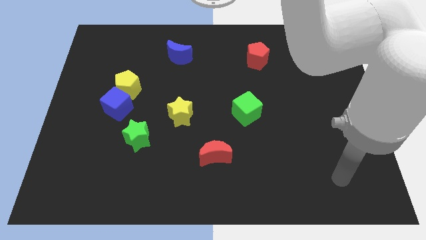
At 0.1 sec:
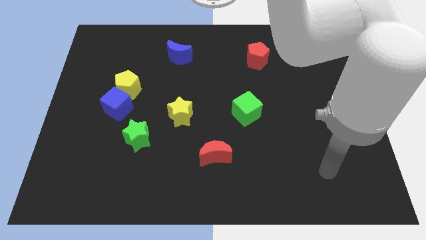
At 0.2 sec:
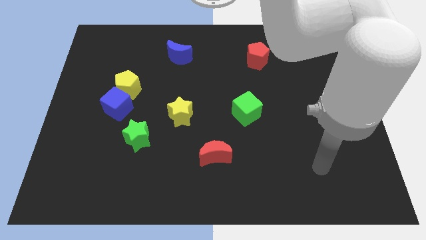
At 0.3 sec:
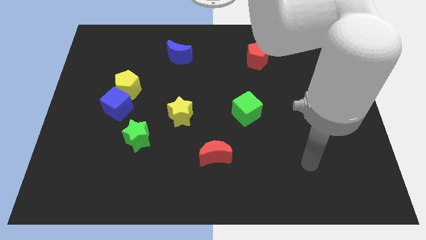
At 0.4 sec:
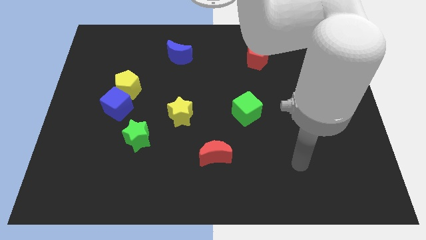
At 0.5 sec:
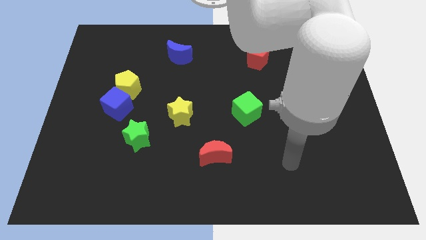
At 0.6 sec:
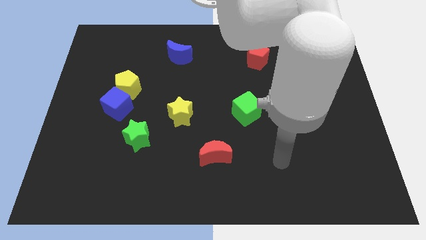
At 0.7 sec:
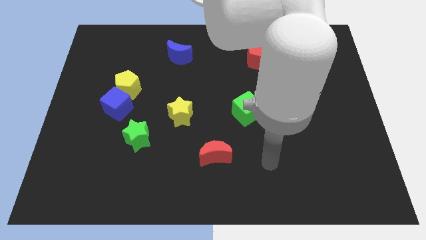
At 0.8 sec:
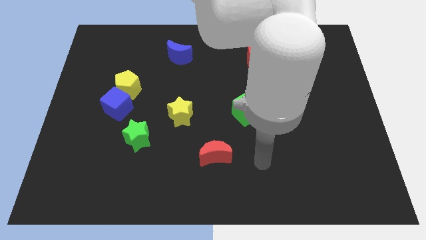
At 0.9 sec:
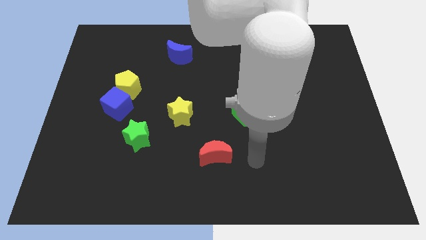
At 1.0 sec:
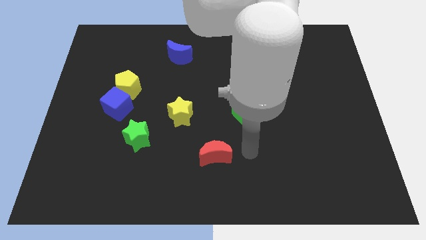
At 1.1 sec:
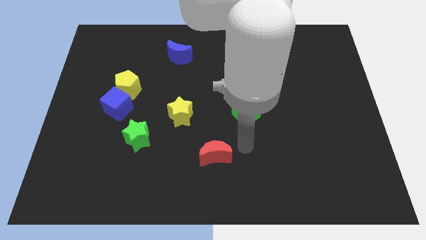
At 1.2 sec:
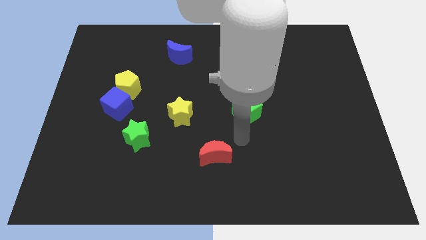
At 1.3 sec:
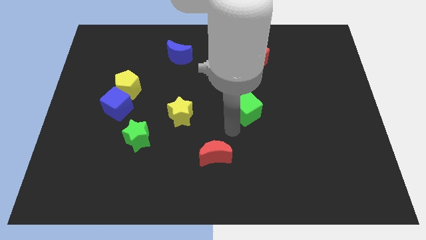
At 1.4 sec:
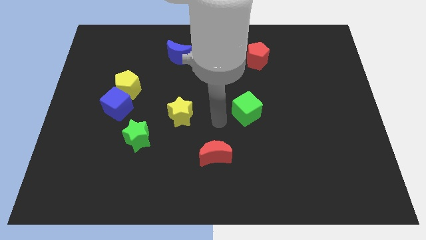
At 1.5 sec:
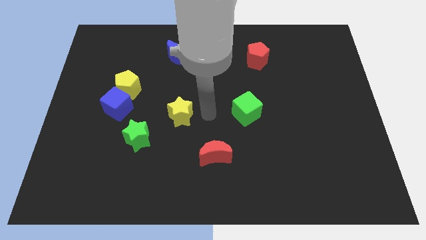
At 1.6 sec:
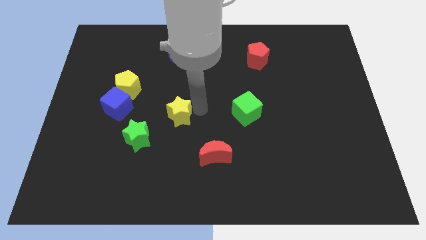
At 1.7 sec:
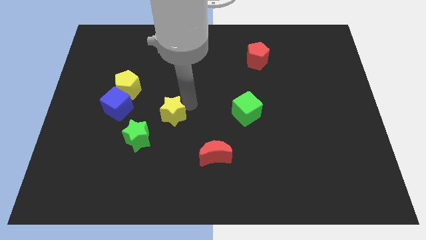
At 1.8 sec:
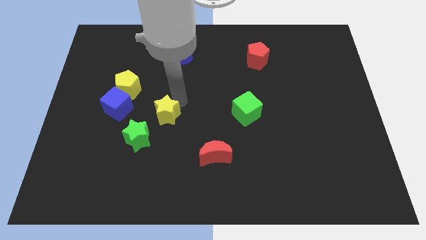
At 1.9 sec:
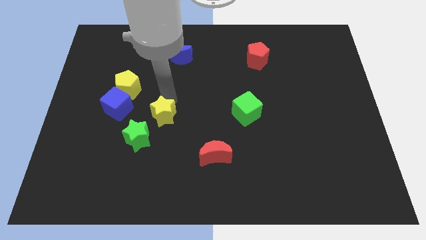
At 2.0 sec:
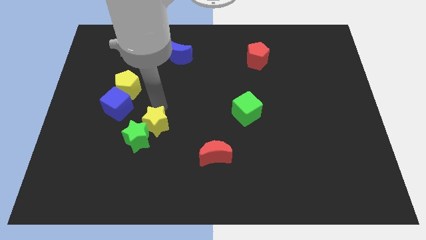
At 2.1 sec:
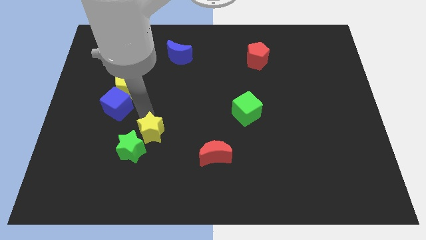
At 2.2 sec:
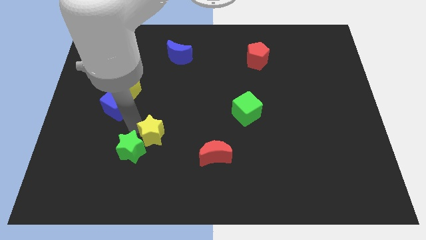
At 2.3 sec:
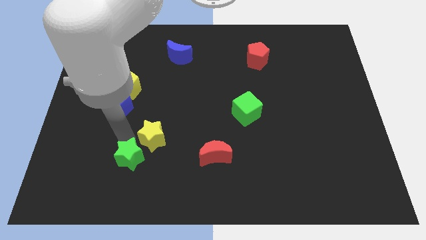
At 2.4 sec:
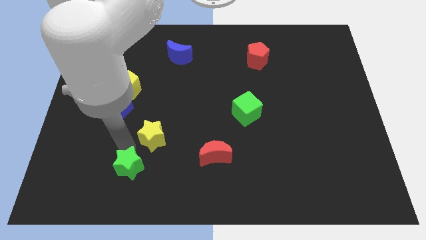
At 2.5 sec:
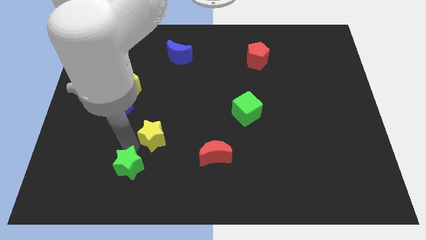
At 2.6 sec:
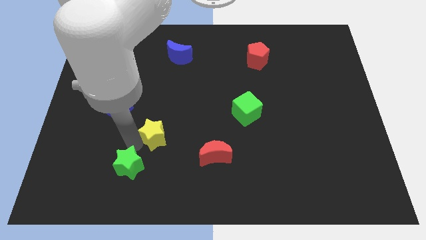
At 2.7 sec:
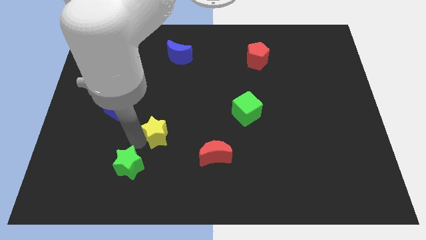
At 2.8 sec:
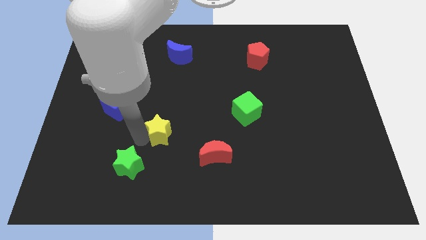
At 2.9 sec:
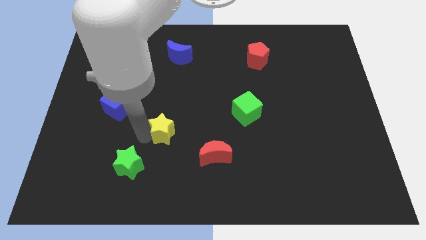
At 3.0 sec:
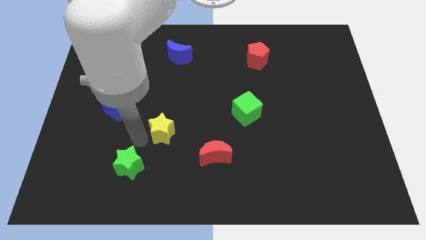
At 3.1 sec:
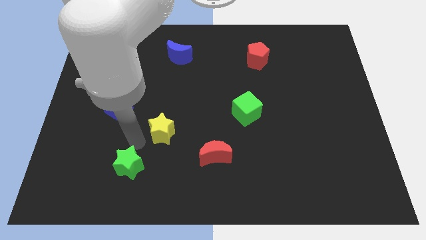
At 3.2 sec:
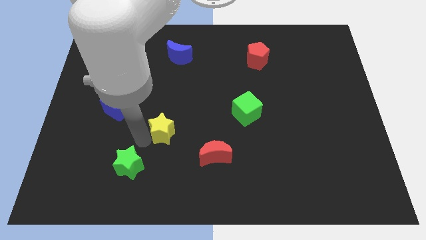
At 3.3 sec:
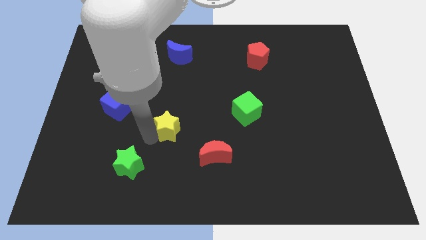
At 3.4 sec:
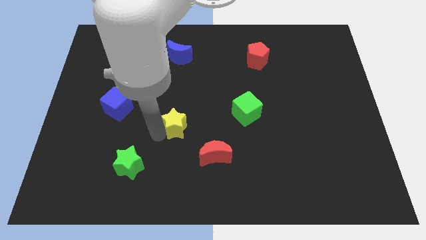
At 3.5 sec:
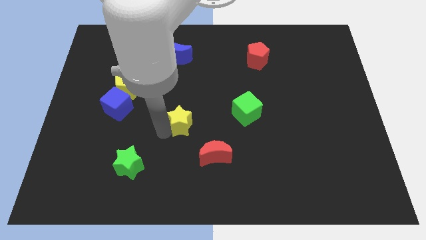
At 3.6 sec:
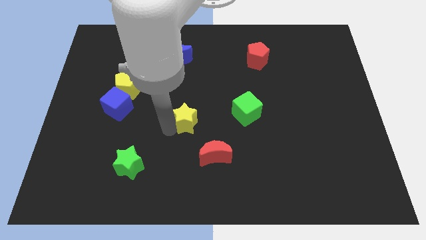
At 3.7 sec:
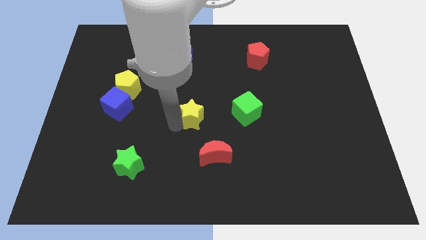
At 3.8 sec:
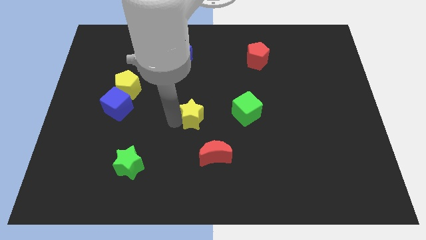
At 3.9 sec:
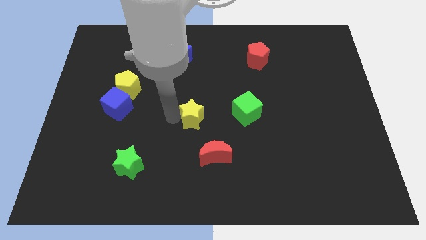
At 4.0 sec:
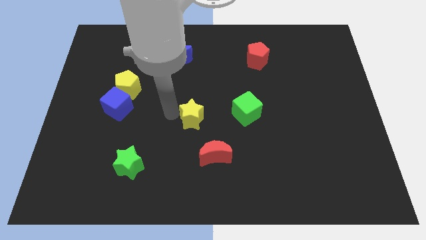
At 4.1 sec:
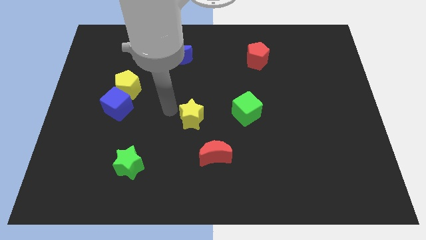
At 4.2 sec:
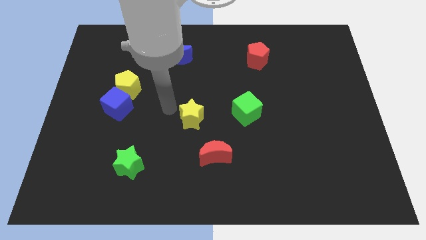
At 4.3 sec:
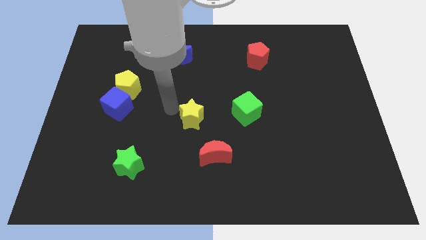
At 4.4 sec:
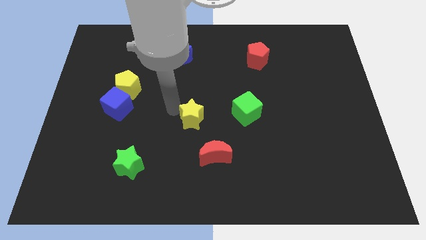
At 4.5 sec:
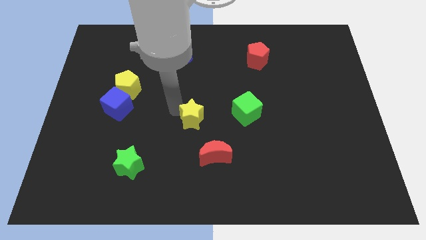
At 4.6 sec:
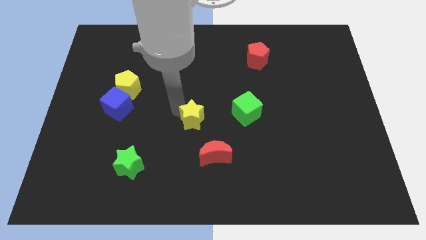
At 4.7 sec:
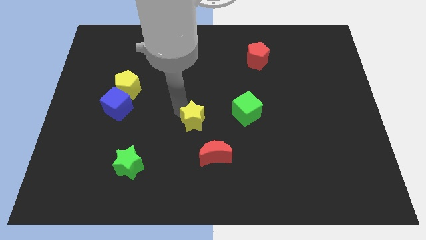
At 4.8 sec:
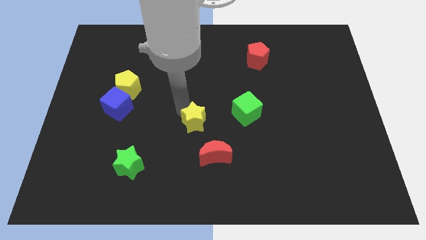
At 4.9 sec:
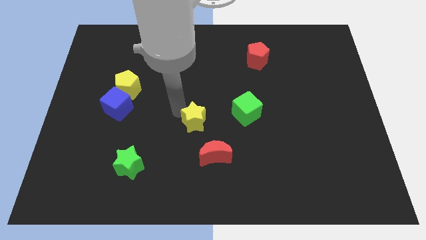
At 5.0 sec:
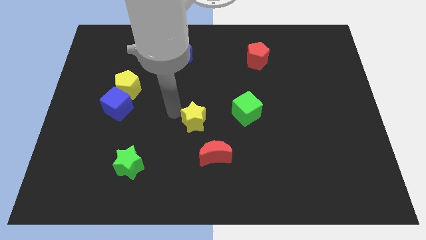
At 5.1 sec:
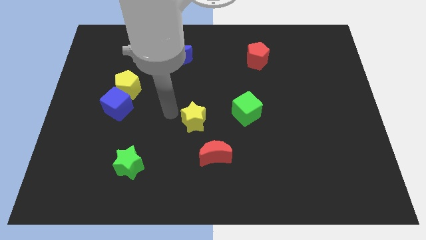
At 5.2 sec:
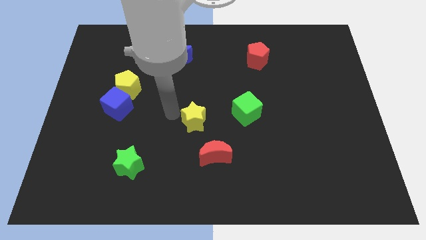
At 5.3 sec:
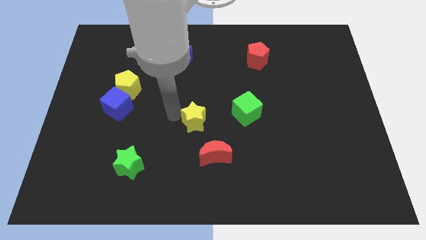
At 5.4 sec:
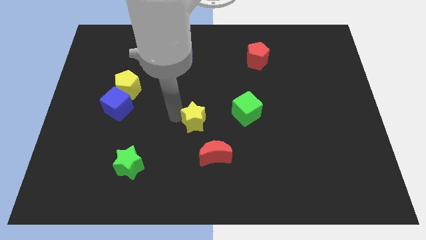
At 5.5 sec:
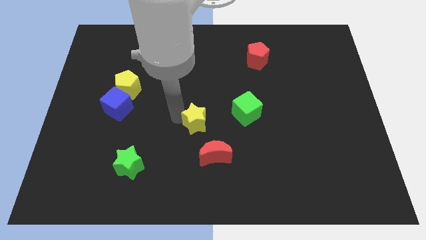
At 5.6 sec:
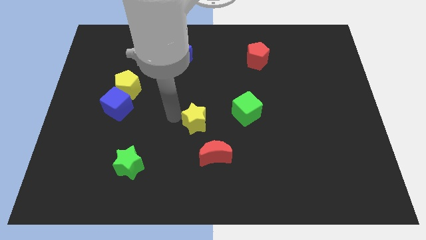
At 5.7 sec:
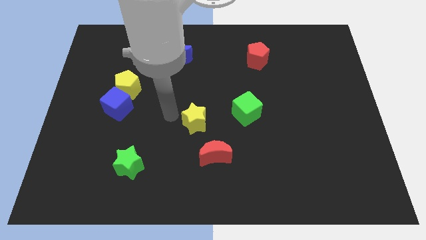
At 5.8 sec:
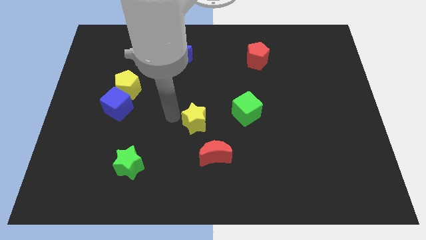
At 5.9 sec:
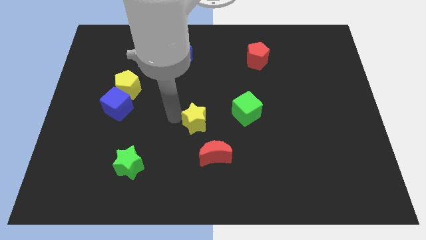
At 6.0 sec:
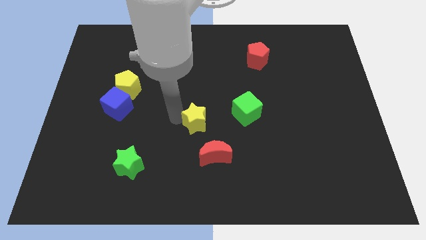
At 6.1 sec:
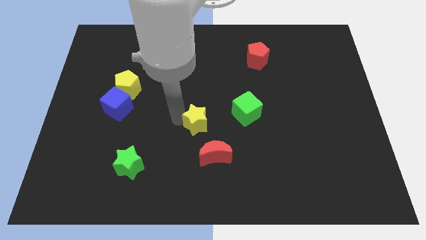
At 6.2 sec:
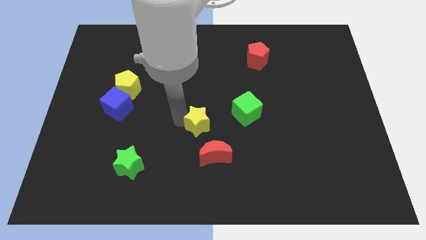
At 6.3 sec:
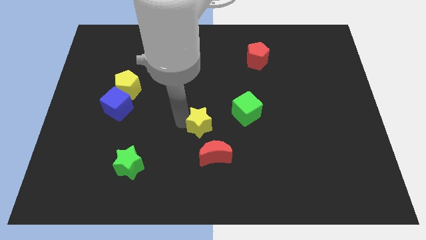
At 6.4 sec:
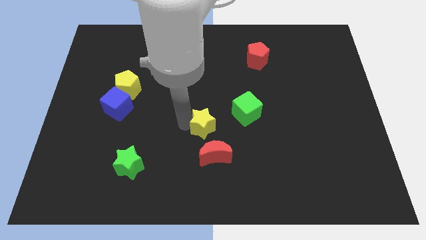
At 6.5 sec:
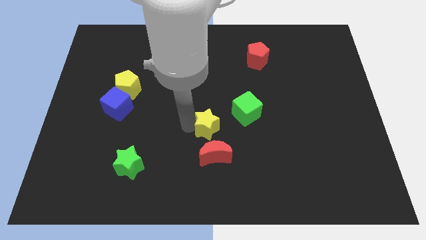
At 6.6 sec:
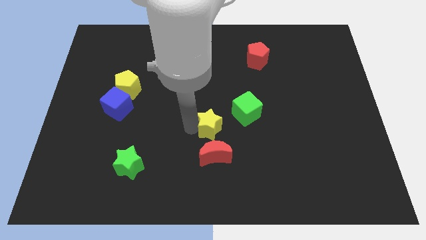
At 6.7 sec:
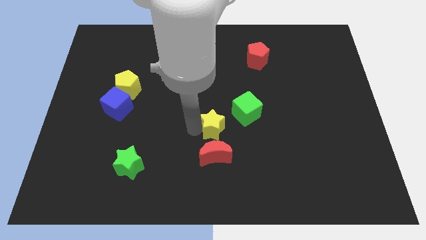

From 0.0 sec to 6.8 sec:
slide the yellow star right somewhat

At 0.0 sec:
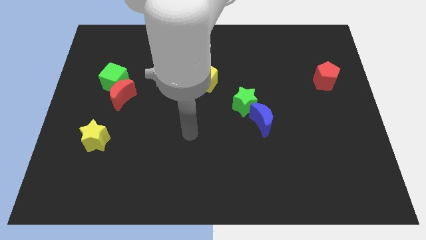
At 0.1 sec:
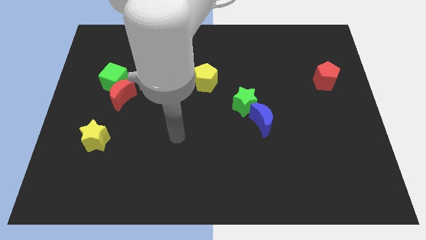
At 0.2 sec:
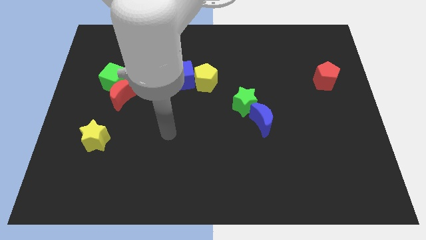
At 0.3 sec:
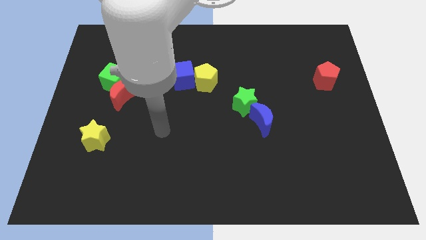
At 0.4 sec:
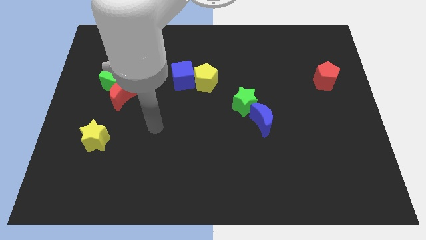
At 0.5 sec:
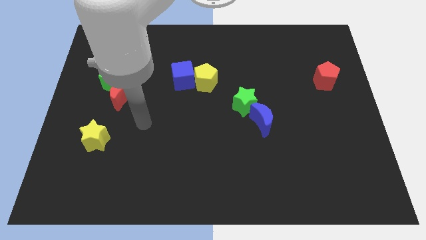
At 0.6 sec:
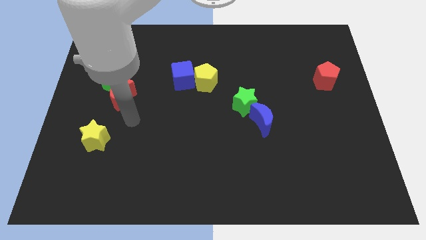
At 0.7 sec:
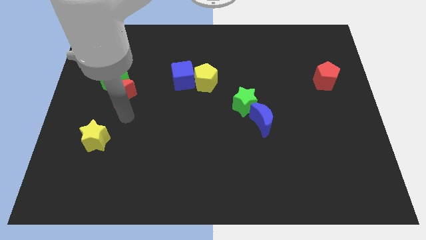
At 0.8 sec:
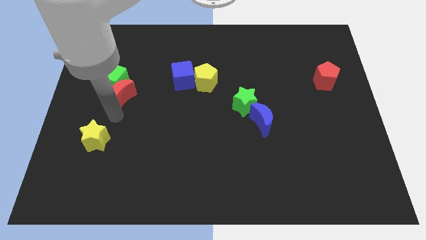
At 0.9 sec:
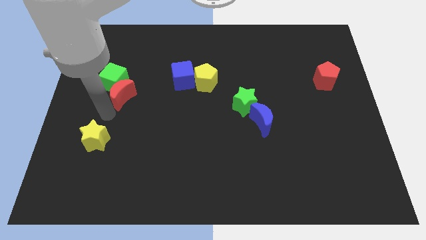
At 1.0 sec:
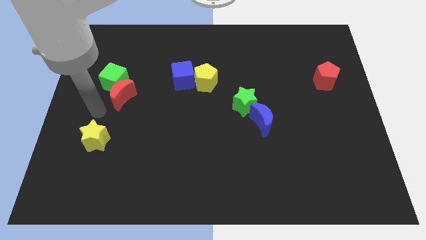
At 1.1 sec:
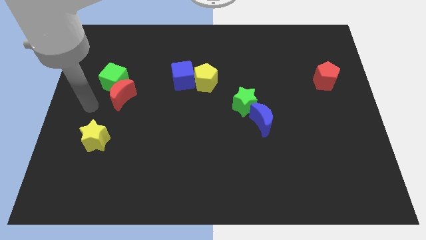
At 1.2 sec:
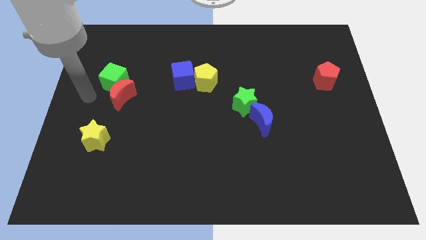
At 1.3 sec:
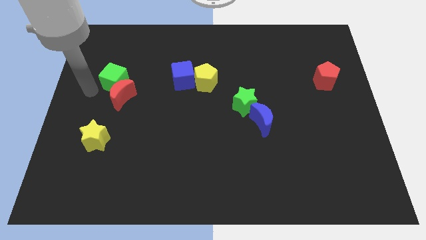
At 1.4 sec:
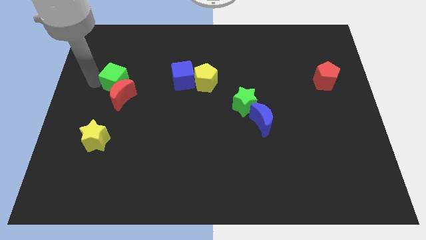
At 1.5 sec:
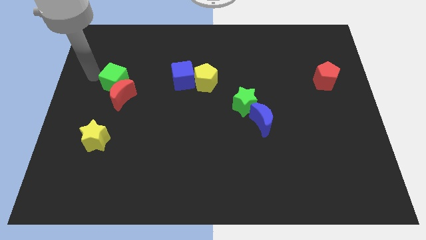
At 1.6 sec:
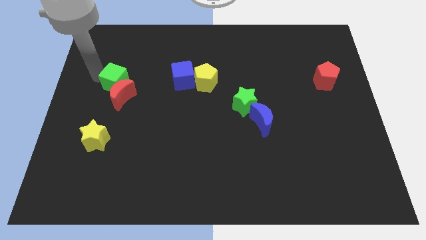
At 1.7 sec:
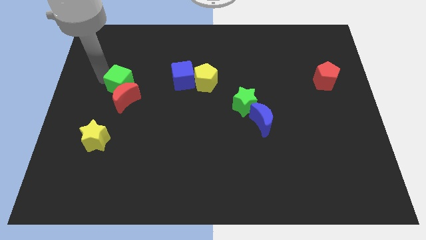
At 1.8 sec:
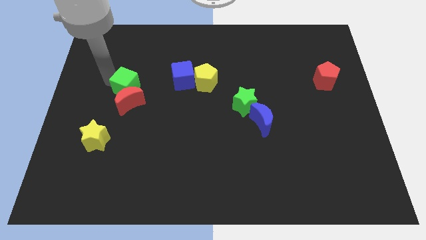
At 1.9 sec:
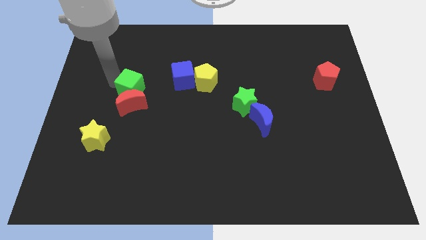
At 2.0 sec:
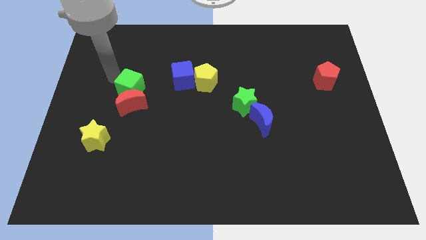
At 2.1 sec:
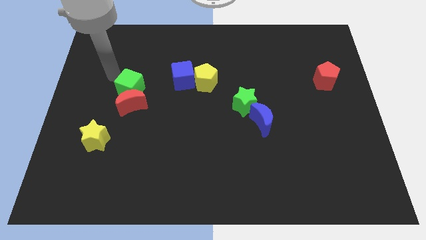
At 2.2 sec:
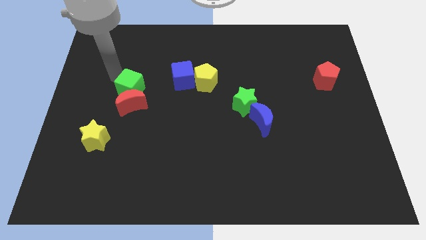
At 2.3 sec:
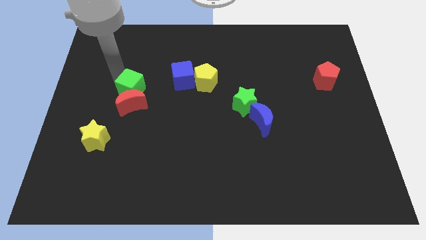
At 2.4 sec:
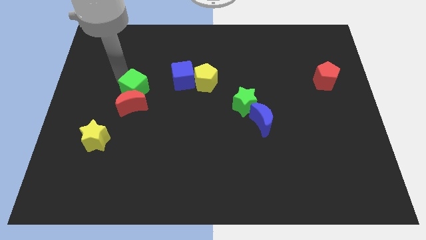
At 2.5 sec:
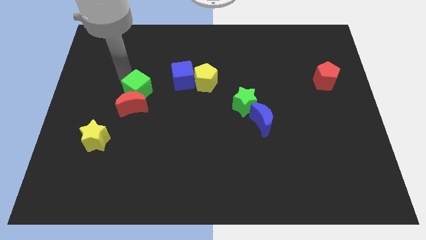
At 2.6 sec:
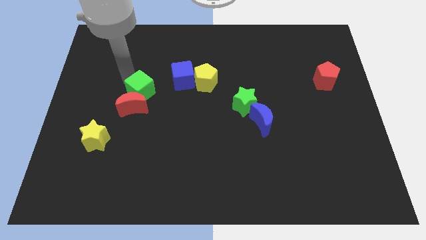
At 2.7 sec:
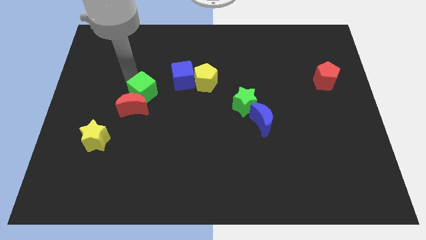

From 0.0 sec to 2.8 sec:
push the green cube slightly downwards and to the right
